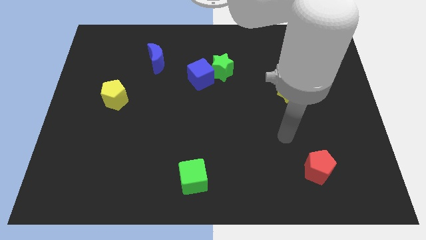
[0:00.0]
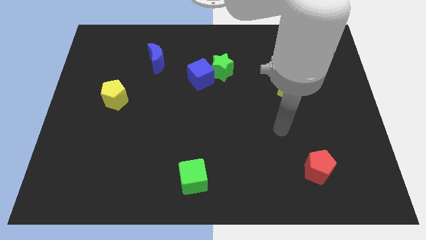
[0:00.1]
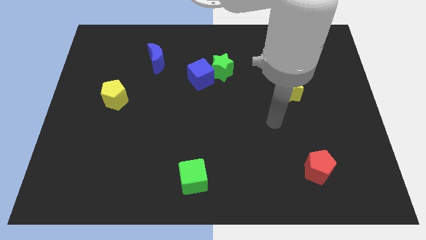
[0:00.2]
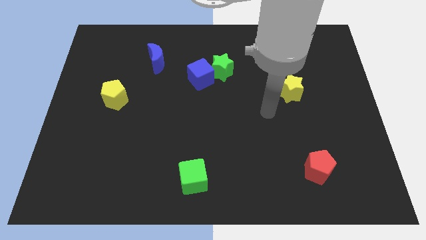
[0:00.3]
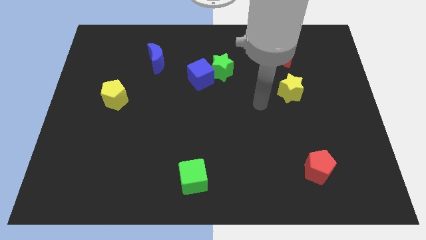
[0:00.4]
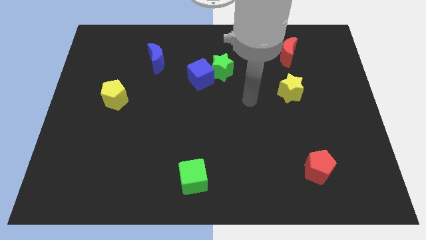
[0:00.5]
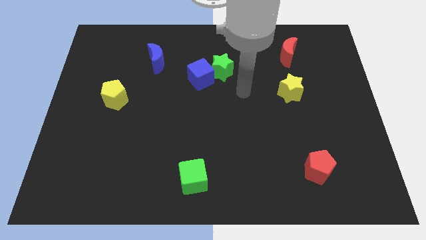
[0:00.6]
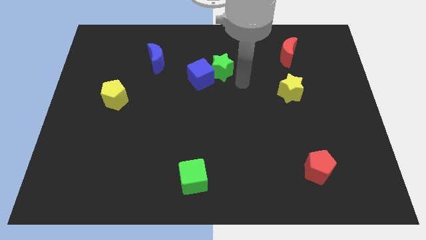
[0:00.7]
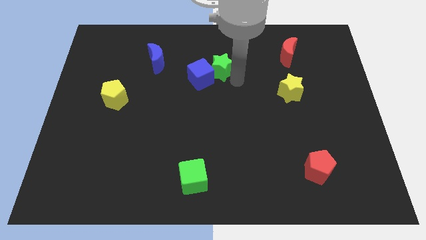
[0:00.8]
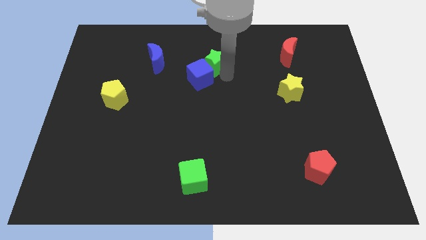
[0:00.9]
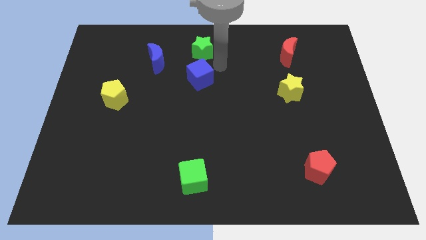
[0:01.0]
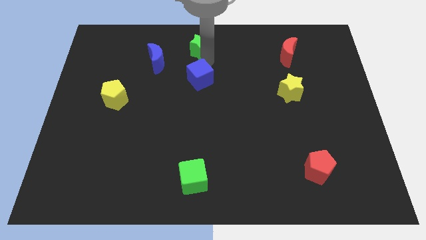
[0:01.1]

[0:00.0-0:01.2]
move the blue cube away from the green star

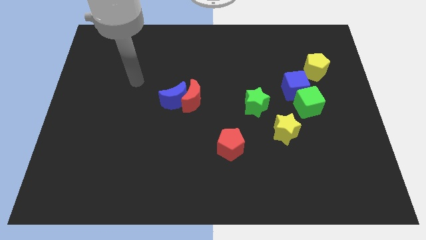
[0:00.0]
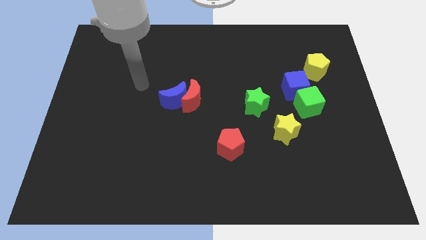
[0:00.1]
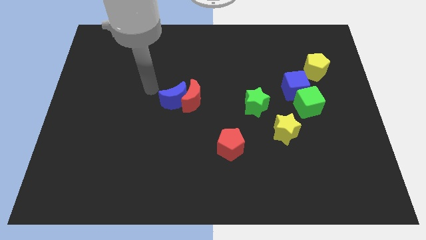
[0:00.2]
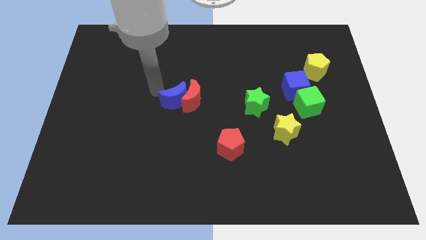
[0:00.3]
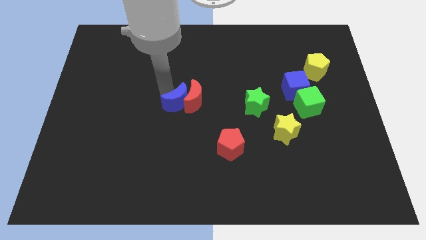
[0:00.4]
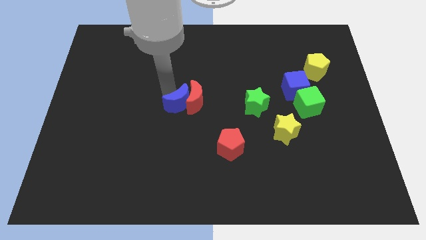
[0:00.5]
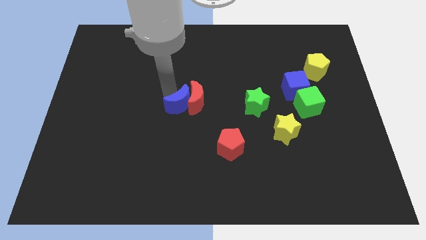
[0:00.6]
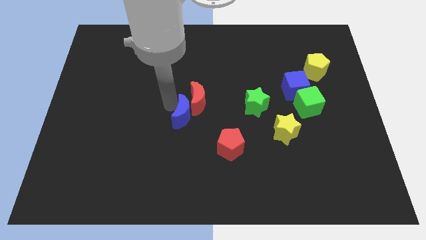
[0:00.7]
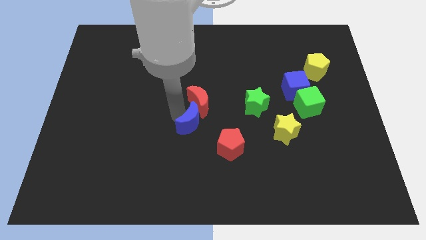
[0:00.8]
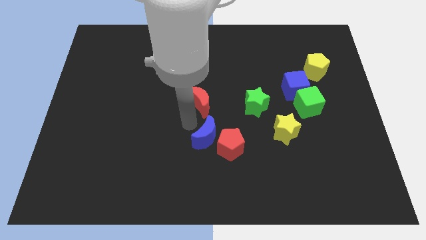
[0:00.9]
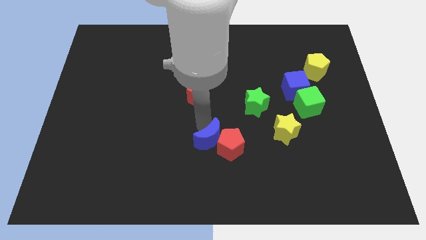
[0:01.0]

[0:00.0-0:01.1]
move the red moon away from the blue moon

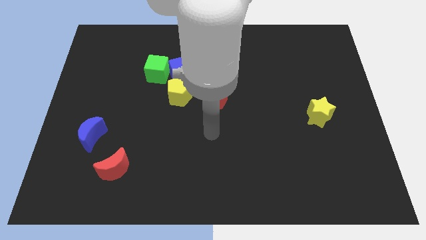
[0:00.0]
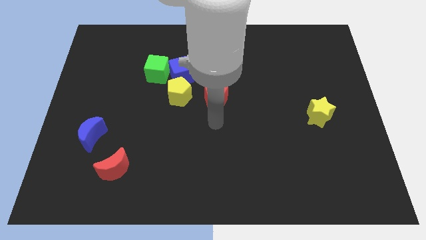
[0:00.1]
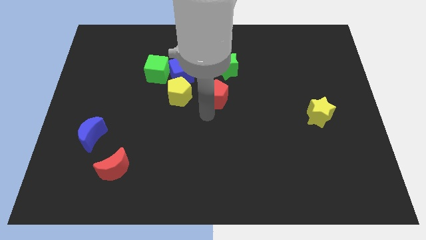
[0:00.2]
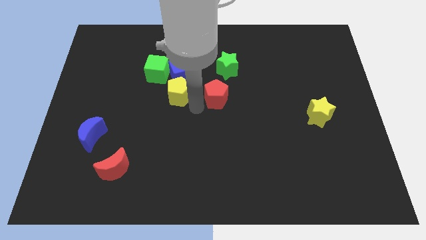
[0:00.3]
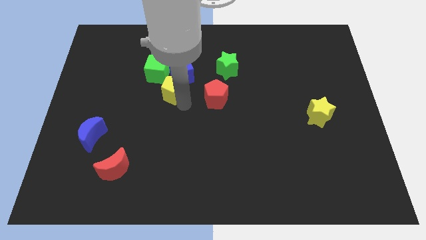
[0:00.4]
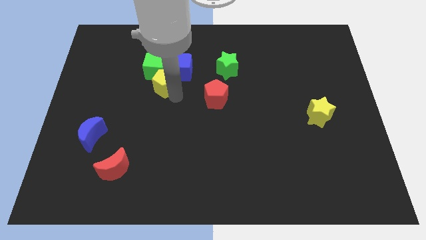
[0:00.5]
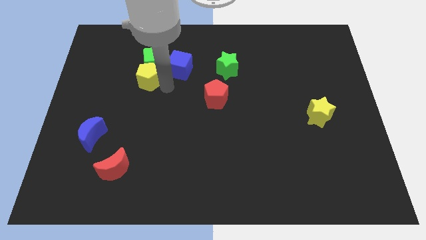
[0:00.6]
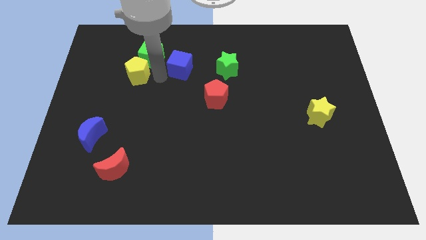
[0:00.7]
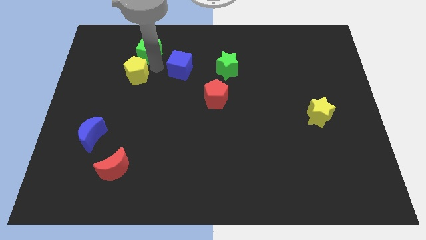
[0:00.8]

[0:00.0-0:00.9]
move the blue cube away from the green cube and yellow pentagon

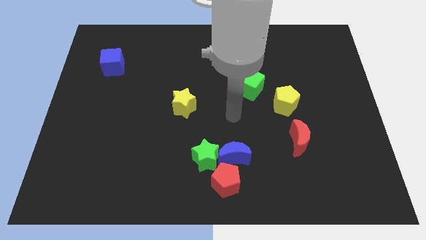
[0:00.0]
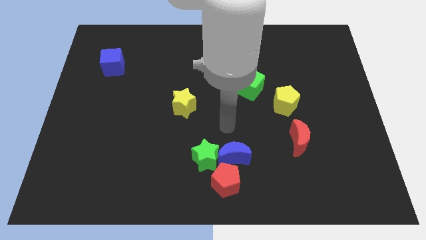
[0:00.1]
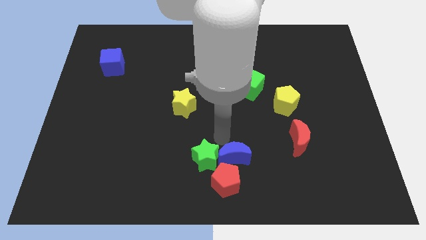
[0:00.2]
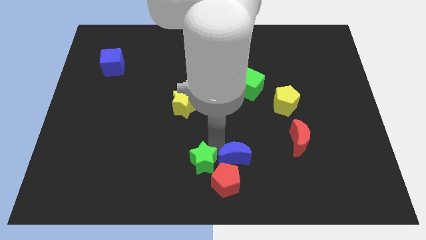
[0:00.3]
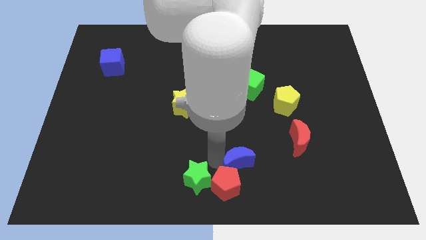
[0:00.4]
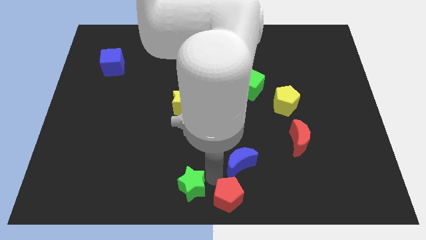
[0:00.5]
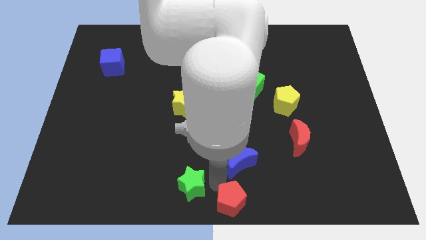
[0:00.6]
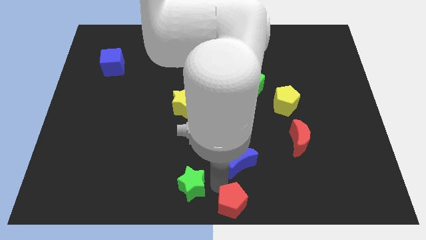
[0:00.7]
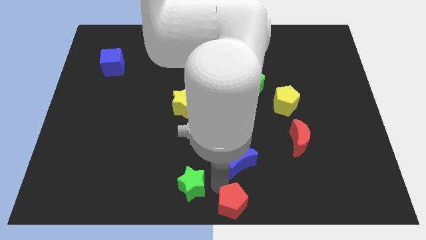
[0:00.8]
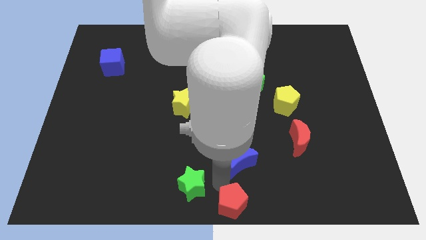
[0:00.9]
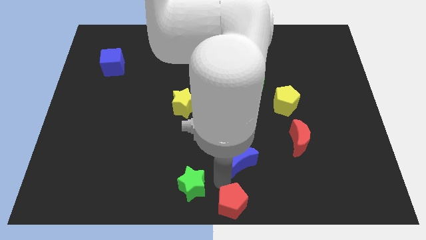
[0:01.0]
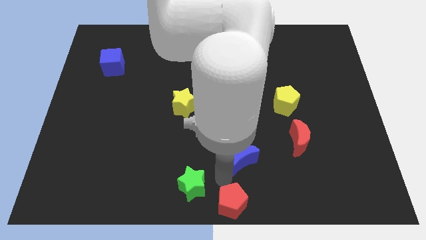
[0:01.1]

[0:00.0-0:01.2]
separate the blue moon from the green star and red pentagon

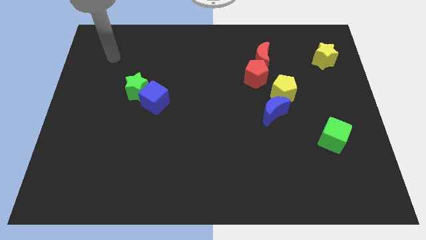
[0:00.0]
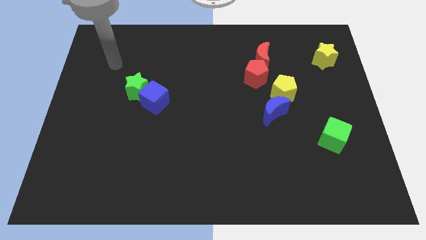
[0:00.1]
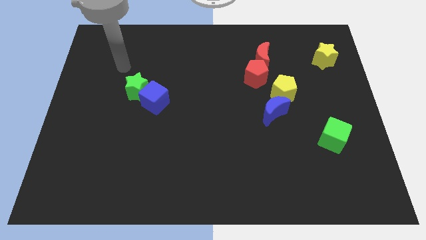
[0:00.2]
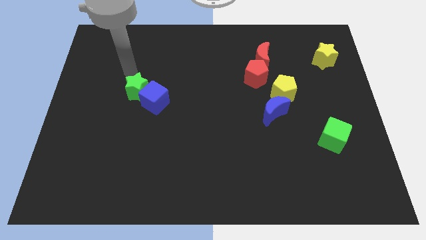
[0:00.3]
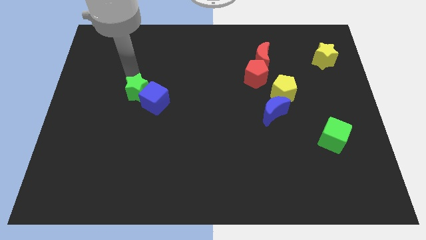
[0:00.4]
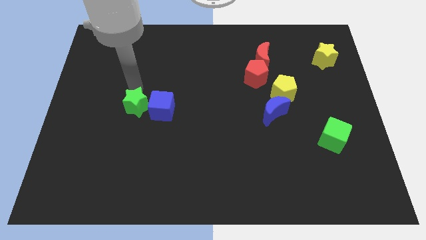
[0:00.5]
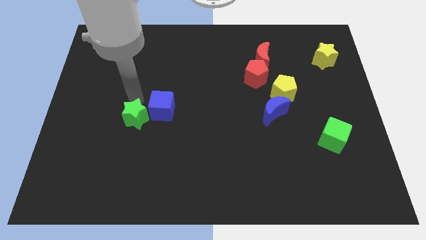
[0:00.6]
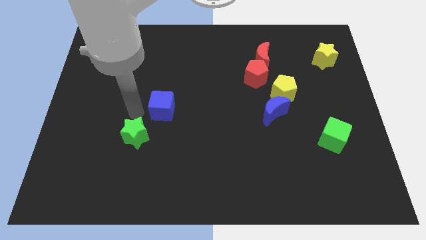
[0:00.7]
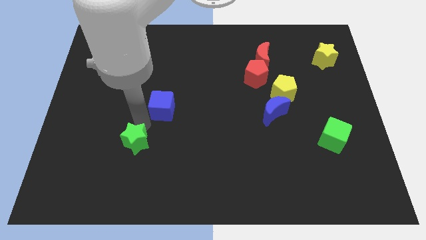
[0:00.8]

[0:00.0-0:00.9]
pull the blue cube apart from the green star

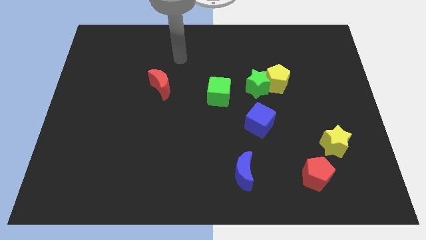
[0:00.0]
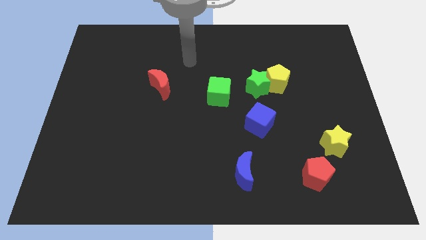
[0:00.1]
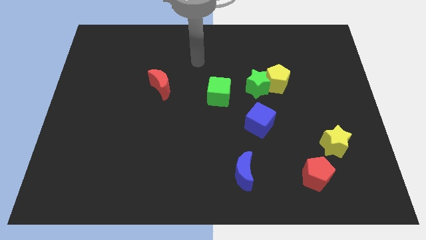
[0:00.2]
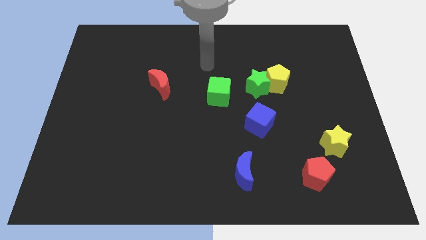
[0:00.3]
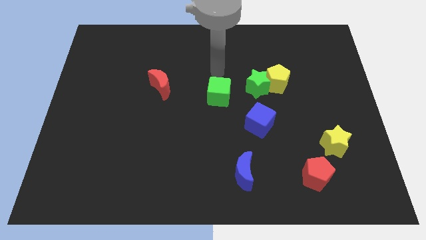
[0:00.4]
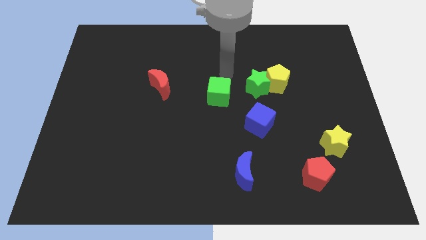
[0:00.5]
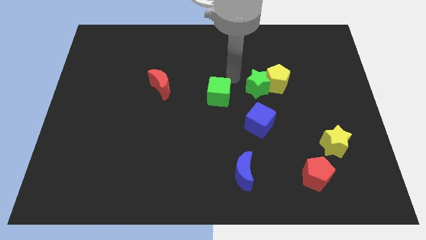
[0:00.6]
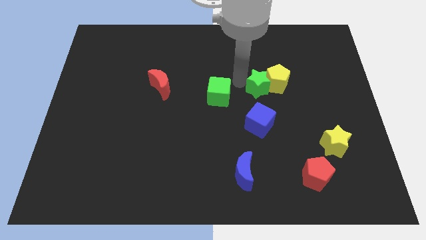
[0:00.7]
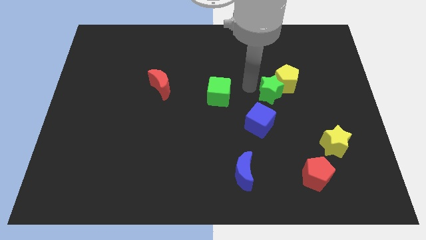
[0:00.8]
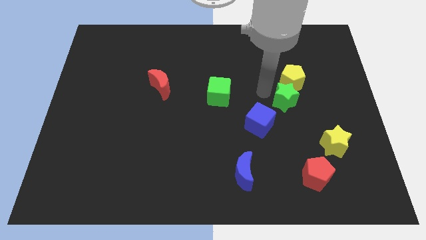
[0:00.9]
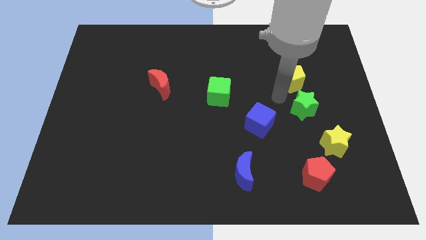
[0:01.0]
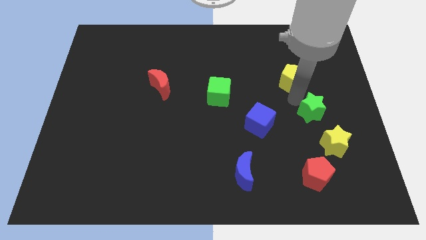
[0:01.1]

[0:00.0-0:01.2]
separate the yellow pentagon from the green star

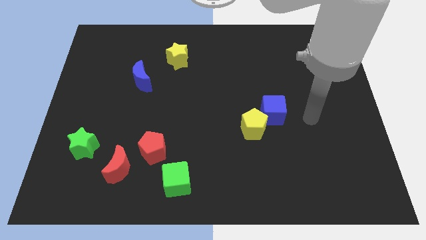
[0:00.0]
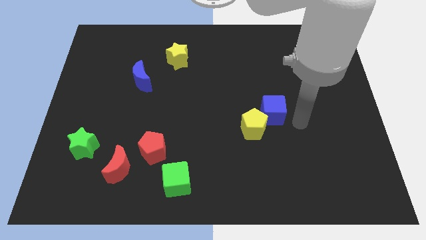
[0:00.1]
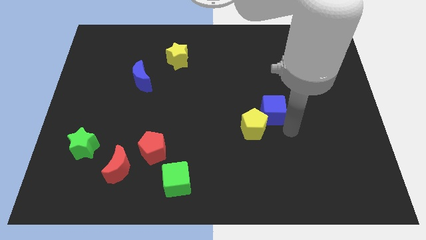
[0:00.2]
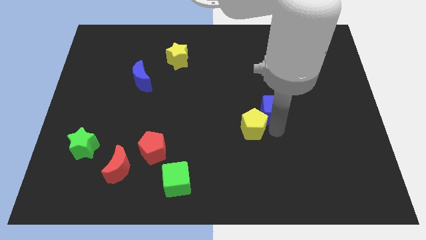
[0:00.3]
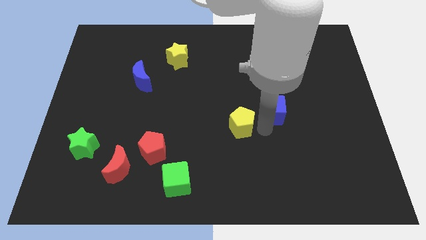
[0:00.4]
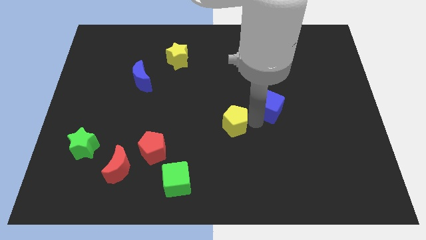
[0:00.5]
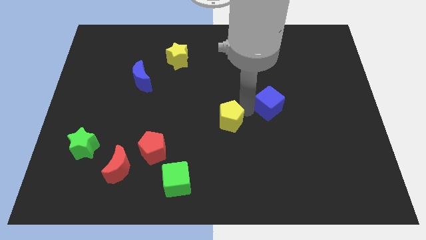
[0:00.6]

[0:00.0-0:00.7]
pull the blue cube apart from the yellow pentagon

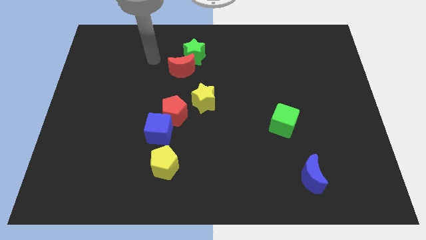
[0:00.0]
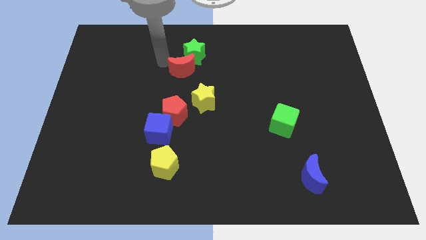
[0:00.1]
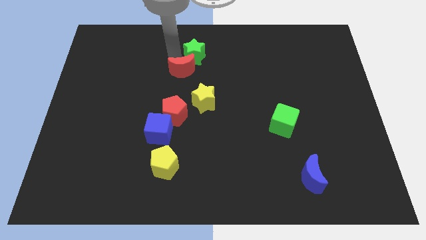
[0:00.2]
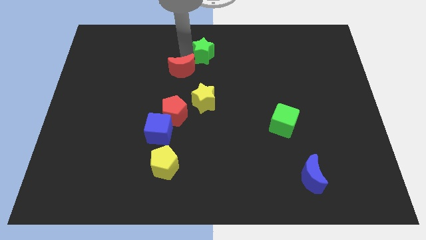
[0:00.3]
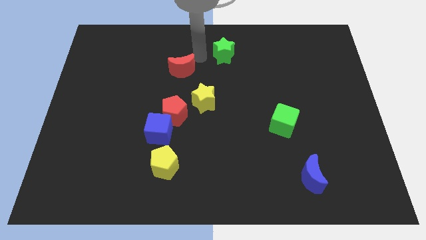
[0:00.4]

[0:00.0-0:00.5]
pull the red moon apart from the green star

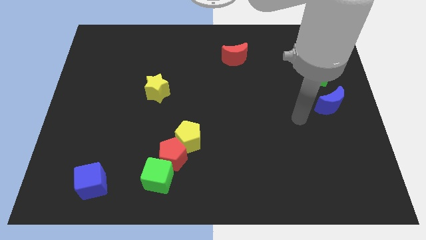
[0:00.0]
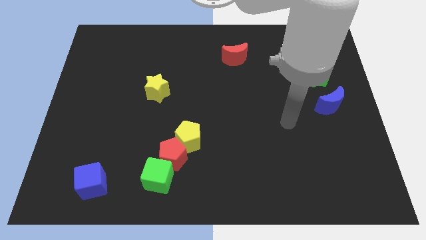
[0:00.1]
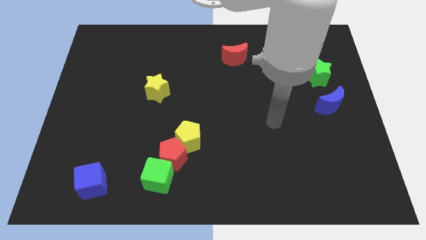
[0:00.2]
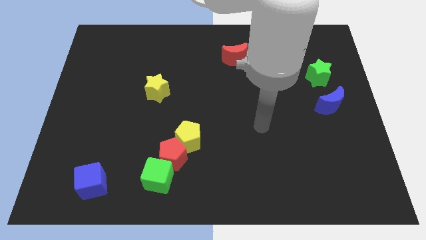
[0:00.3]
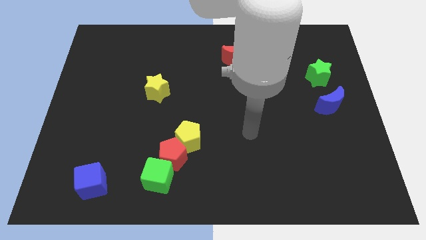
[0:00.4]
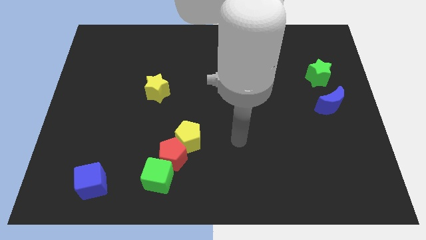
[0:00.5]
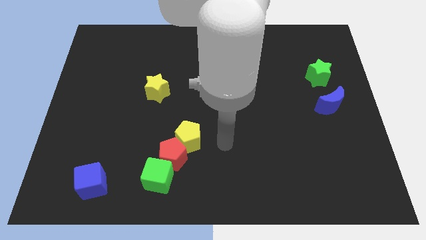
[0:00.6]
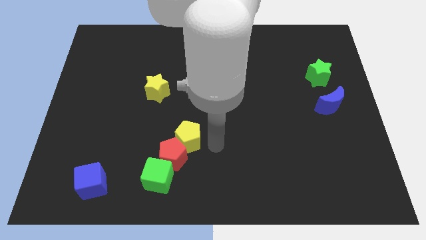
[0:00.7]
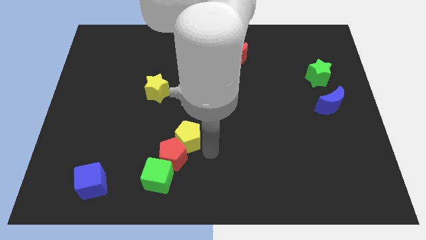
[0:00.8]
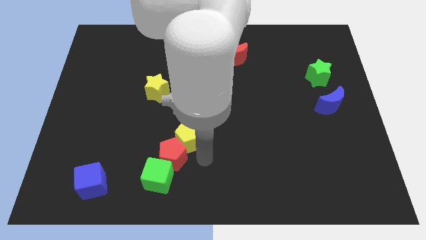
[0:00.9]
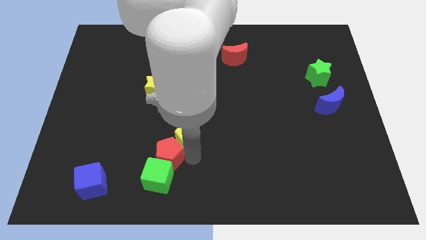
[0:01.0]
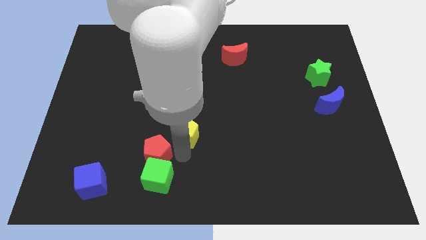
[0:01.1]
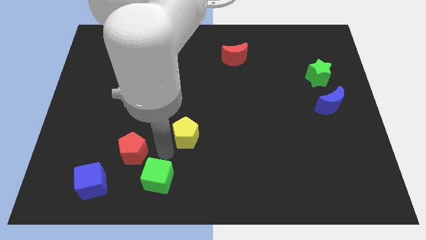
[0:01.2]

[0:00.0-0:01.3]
move the yellow pentagon away from the red pentagon

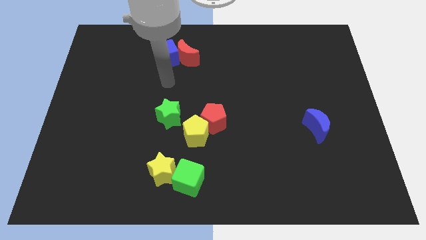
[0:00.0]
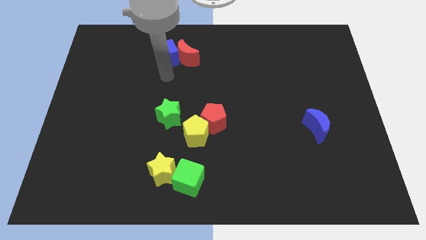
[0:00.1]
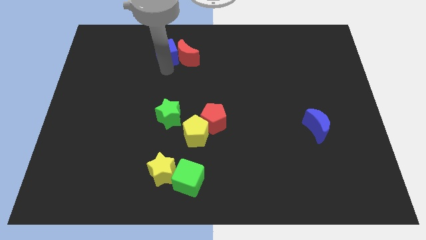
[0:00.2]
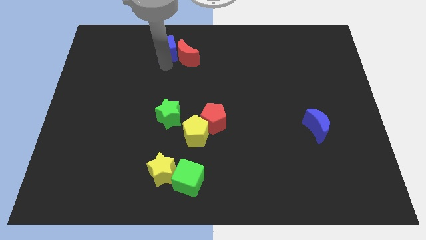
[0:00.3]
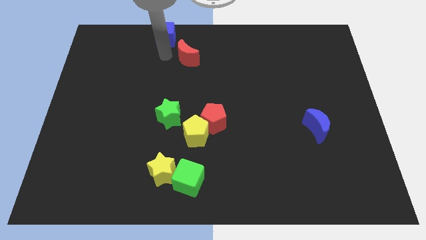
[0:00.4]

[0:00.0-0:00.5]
separate the red moon from the blue cube
